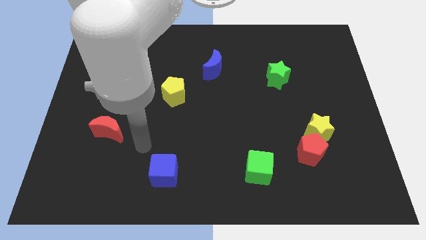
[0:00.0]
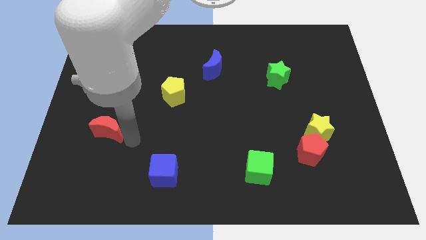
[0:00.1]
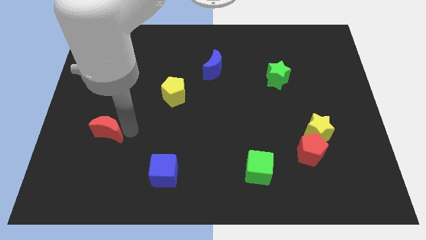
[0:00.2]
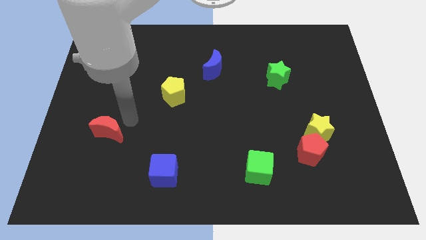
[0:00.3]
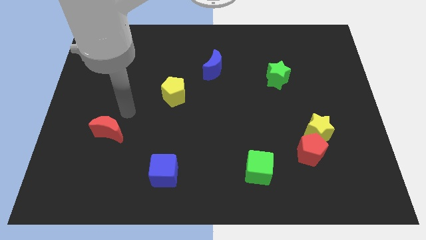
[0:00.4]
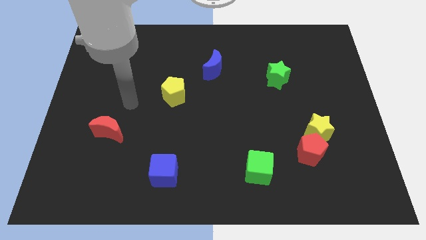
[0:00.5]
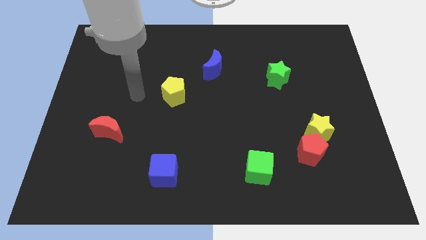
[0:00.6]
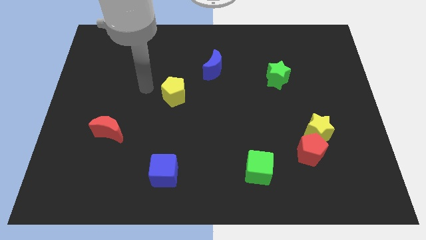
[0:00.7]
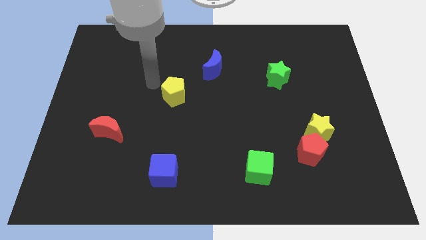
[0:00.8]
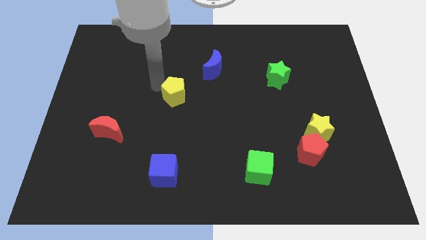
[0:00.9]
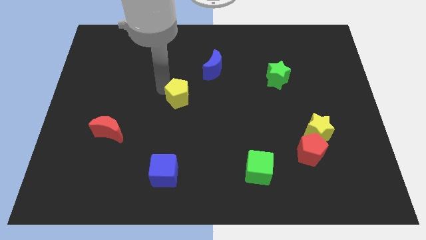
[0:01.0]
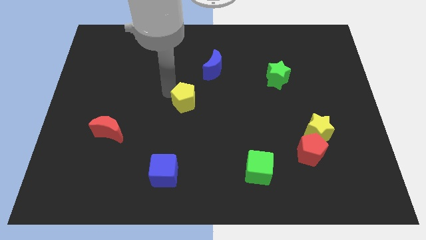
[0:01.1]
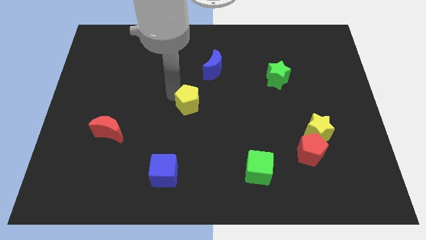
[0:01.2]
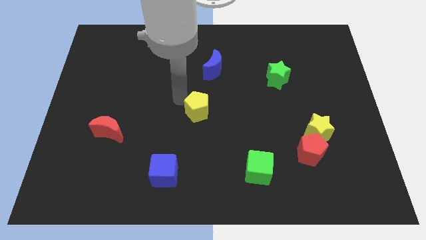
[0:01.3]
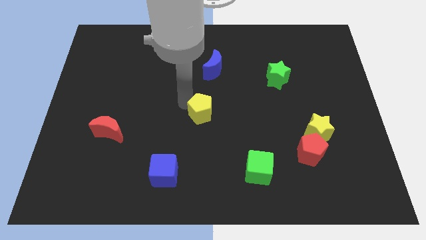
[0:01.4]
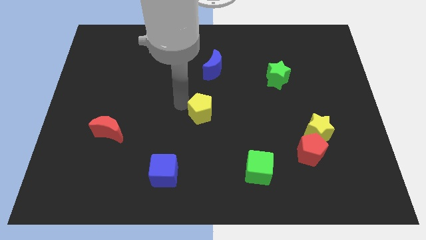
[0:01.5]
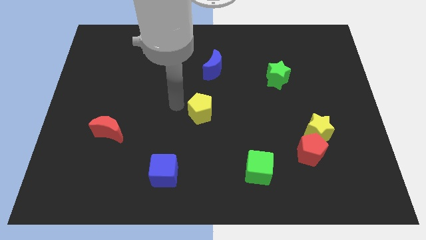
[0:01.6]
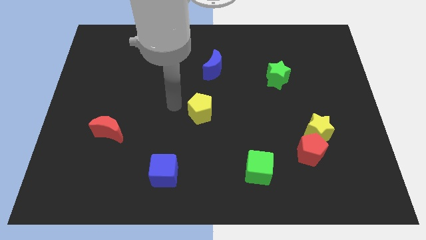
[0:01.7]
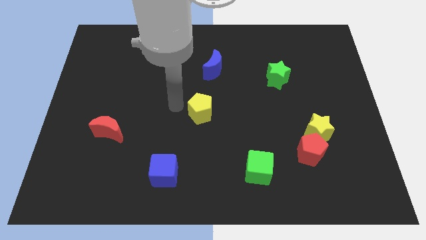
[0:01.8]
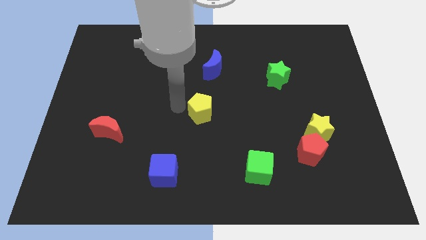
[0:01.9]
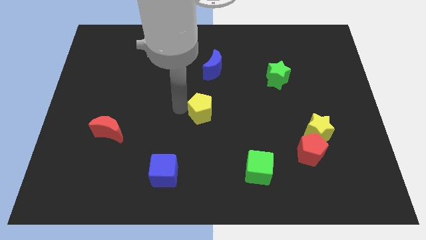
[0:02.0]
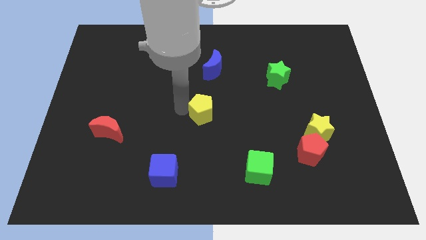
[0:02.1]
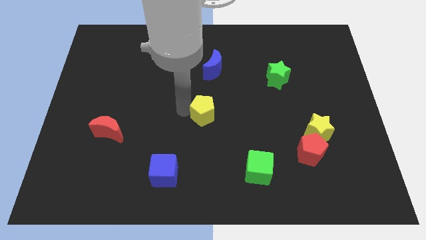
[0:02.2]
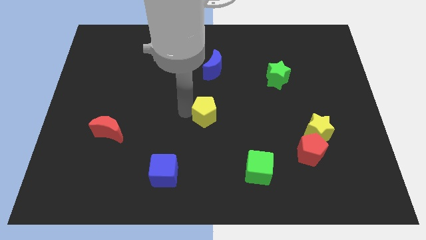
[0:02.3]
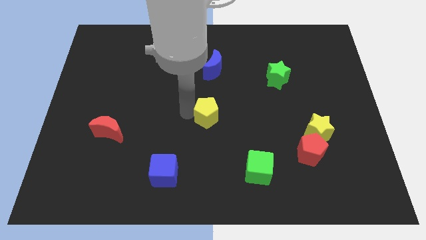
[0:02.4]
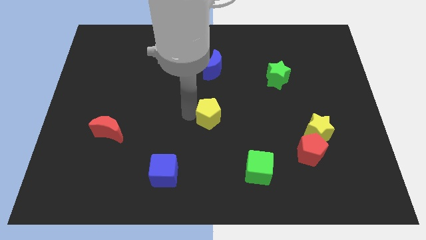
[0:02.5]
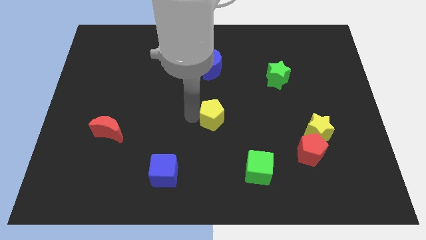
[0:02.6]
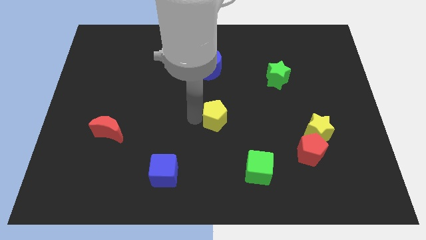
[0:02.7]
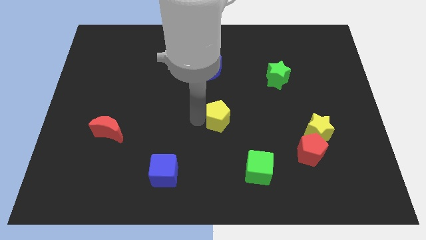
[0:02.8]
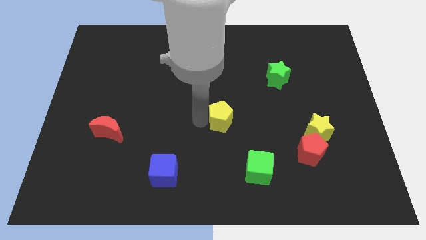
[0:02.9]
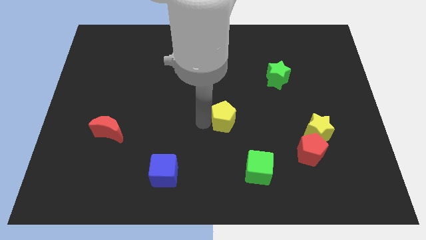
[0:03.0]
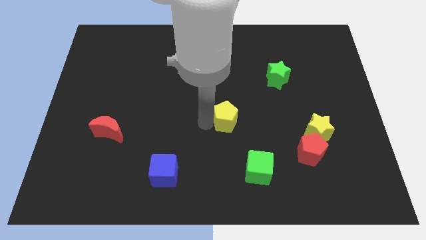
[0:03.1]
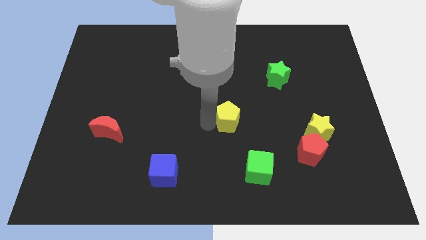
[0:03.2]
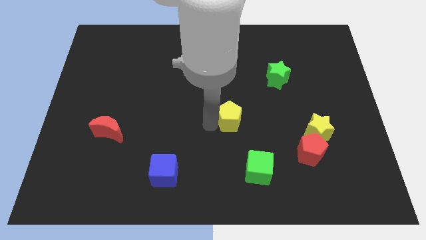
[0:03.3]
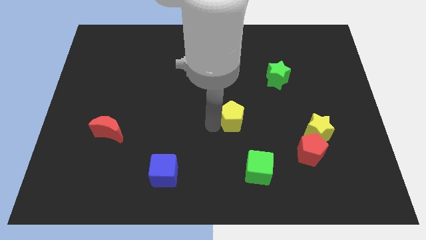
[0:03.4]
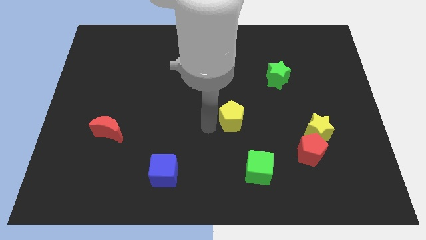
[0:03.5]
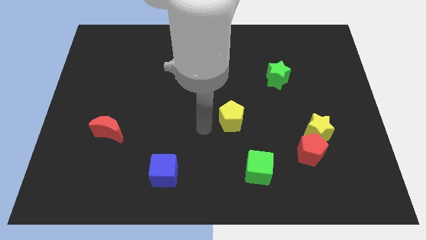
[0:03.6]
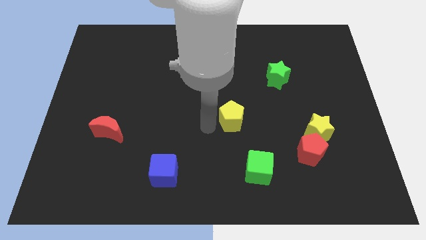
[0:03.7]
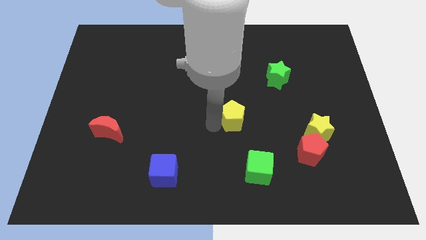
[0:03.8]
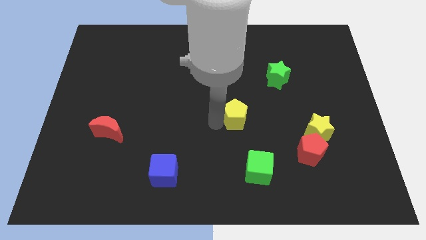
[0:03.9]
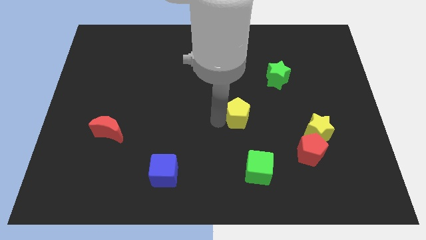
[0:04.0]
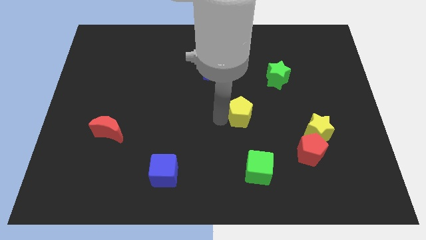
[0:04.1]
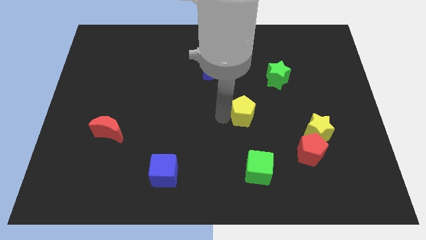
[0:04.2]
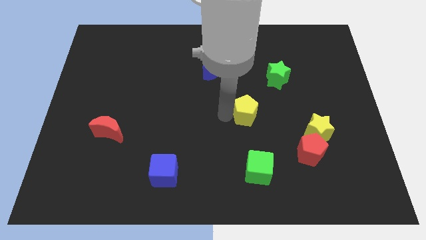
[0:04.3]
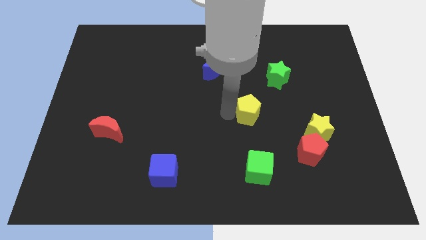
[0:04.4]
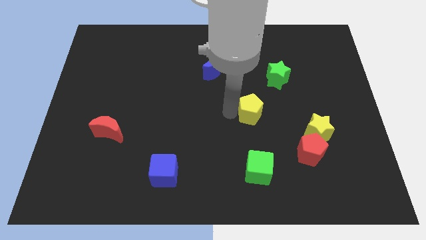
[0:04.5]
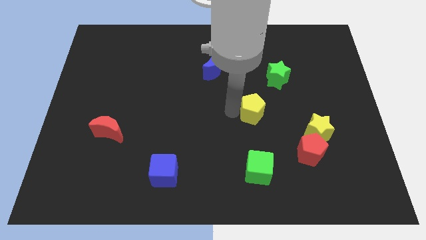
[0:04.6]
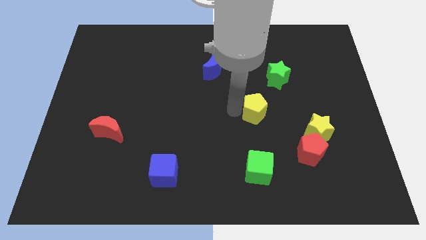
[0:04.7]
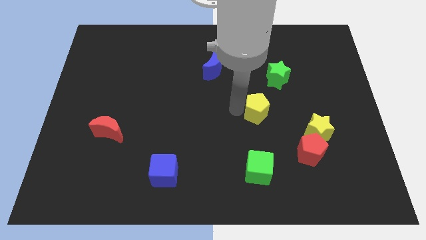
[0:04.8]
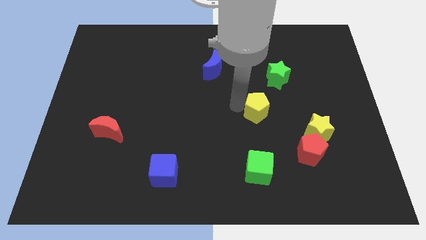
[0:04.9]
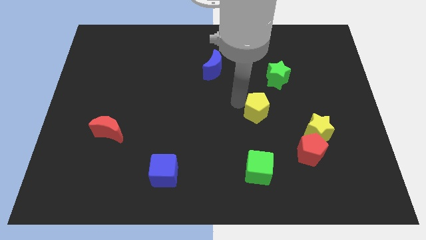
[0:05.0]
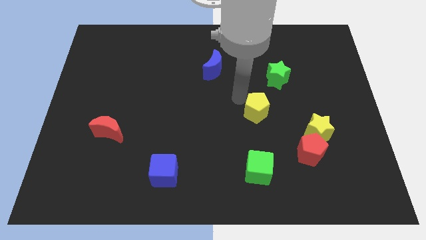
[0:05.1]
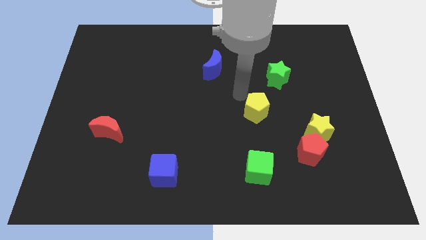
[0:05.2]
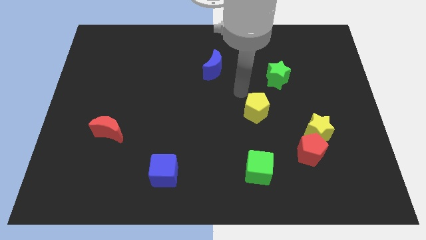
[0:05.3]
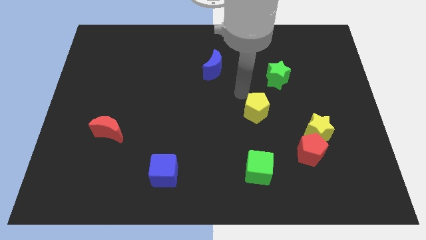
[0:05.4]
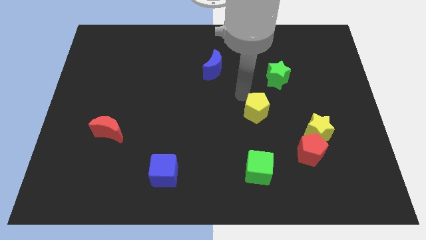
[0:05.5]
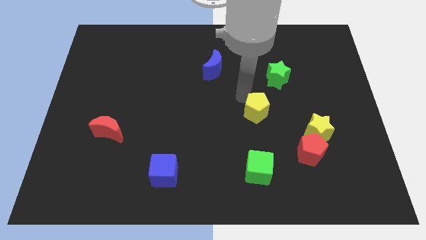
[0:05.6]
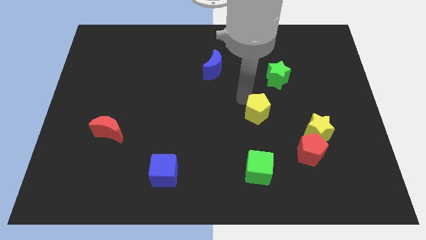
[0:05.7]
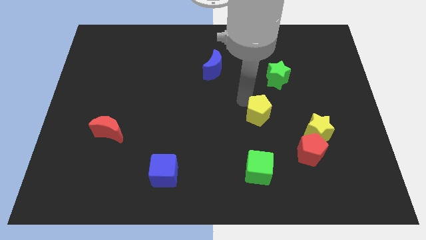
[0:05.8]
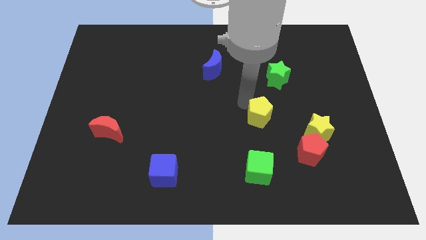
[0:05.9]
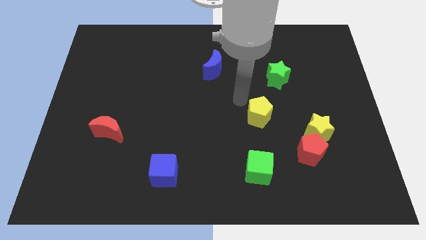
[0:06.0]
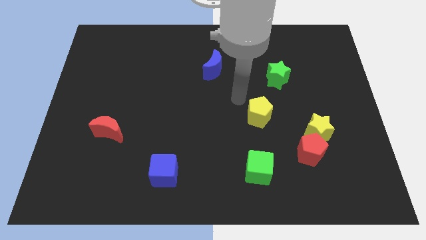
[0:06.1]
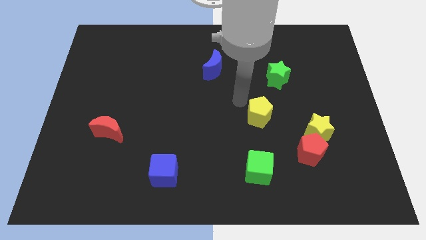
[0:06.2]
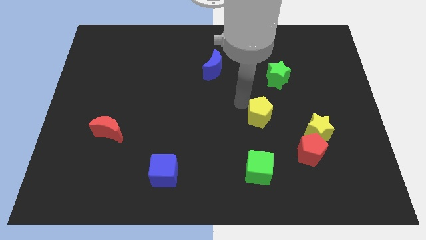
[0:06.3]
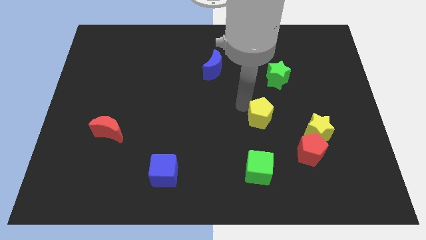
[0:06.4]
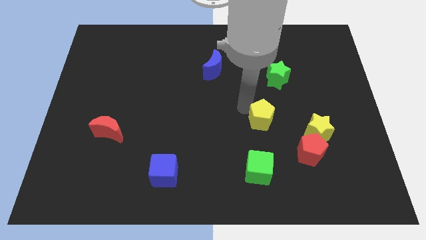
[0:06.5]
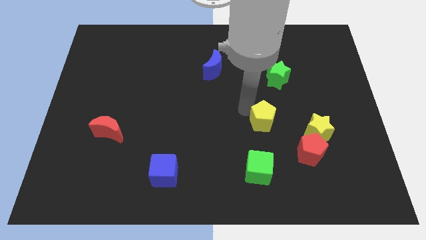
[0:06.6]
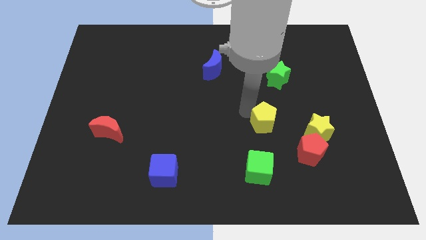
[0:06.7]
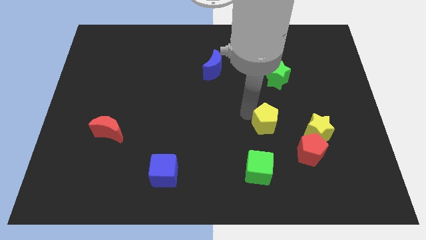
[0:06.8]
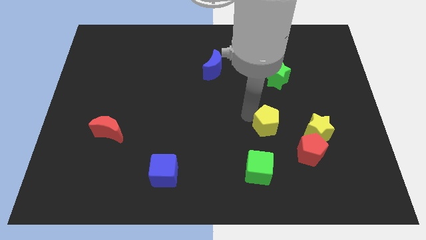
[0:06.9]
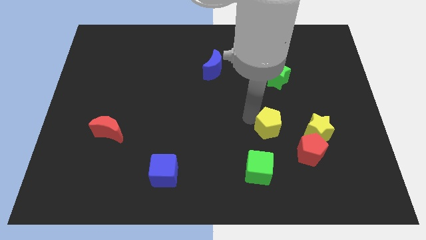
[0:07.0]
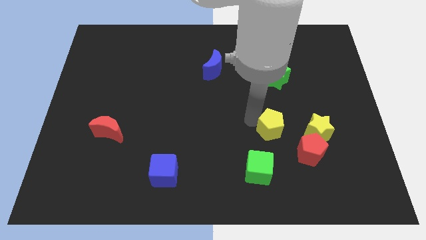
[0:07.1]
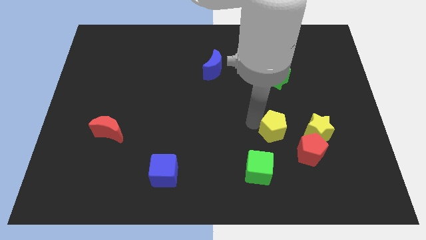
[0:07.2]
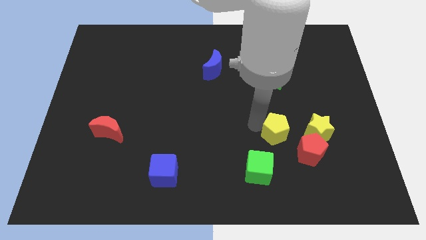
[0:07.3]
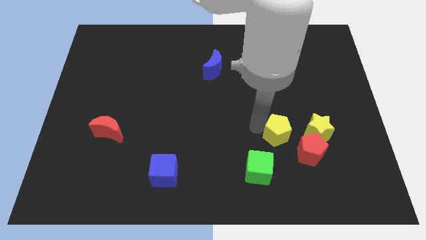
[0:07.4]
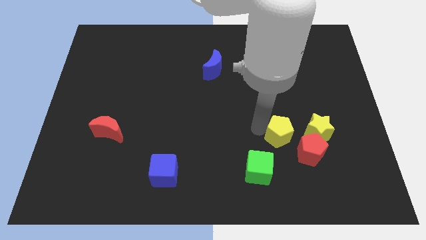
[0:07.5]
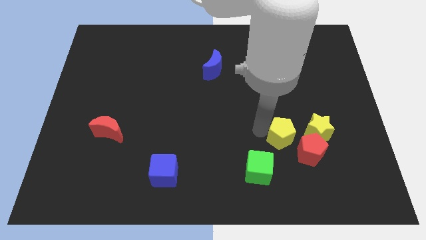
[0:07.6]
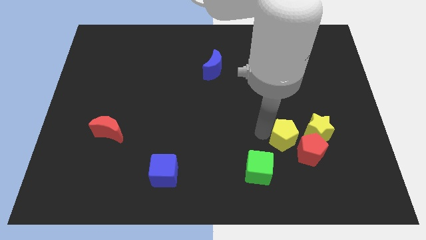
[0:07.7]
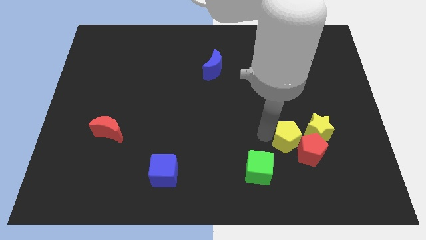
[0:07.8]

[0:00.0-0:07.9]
push the yellow pentagon close to the red pentagon
